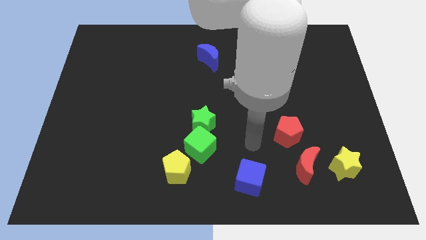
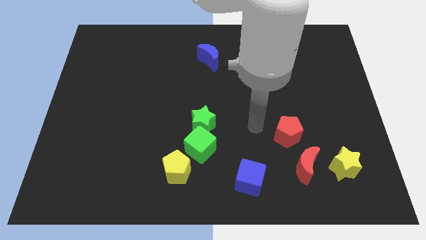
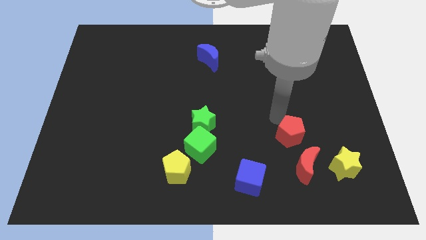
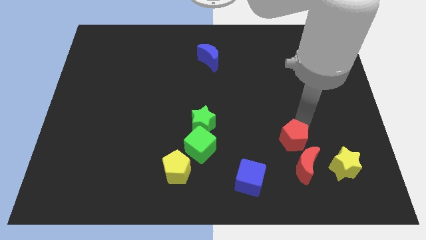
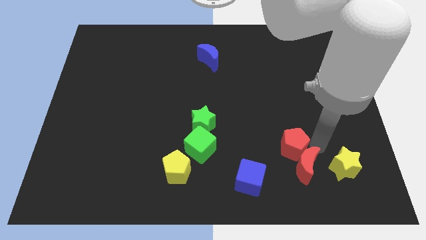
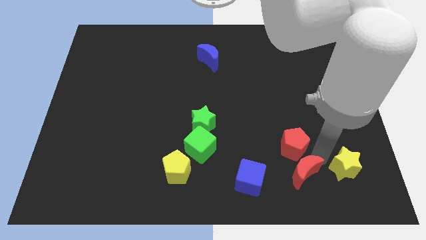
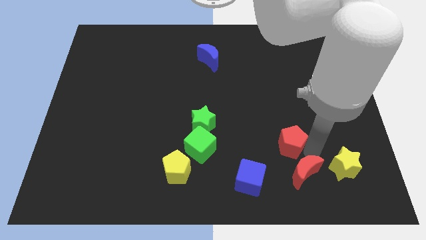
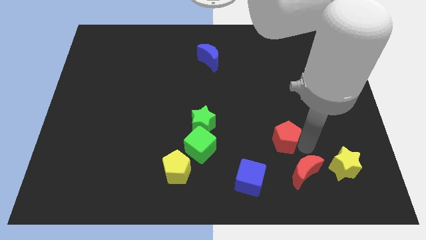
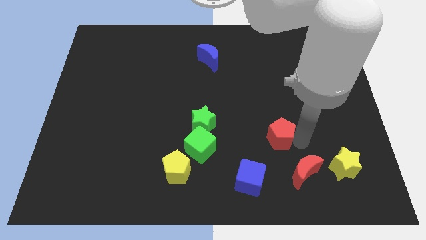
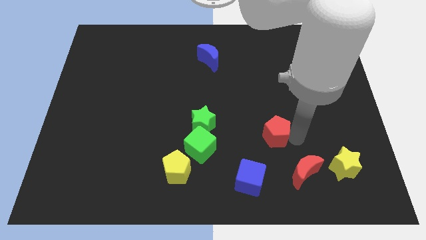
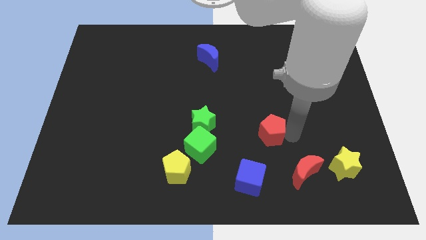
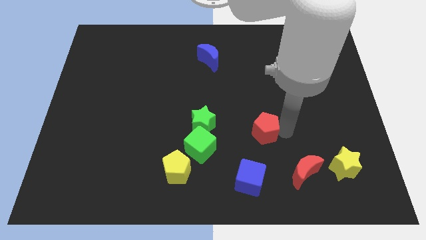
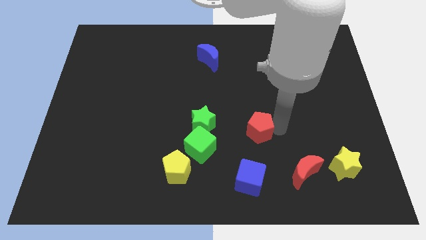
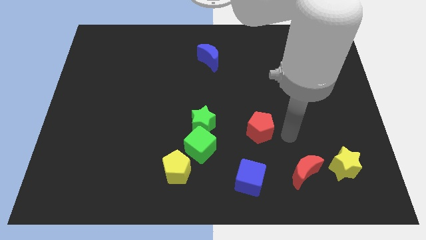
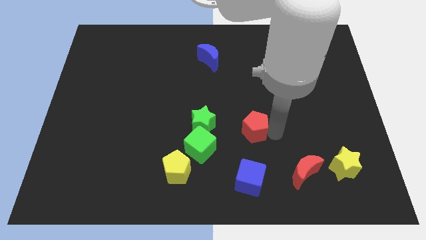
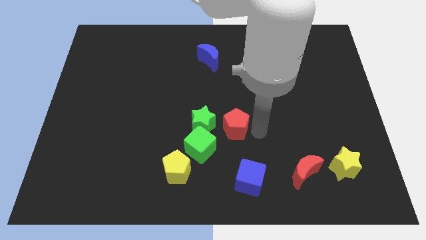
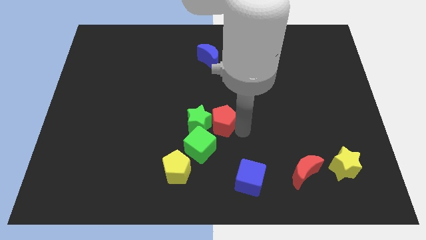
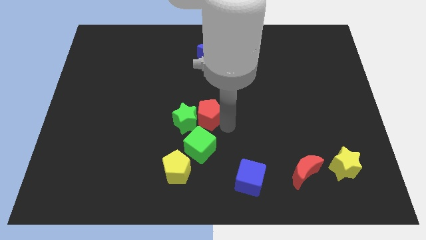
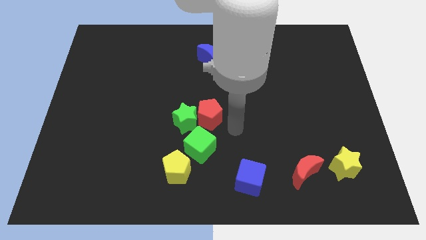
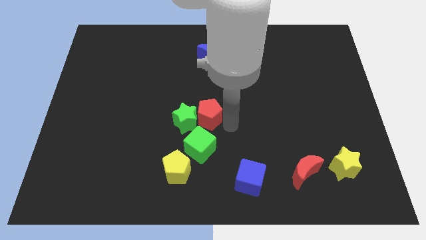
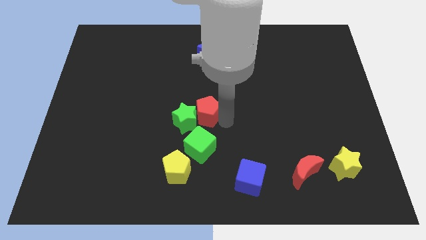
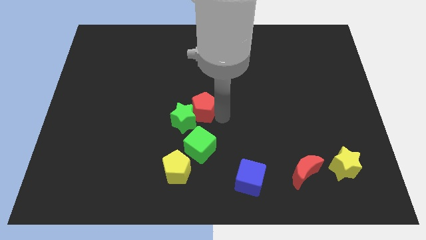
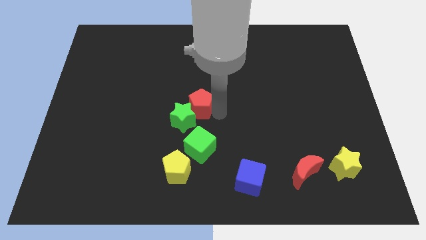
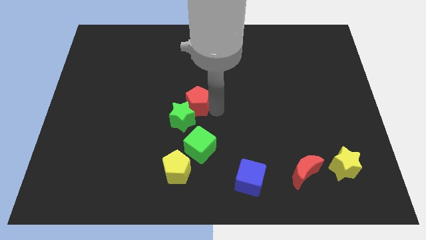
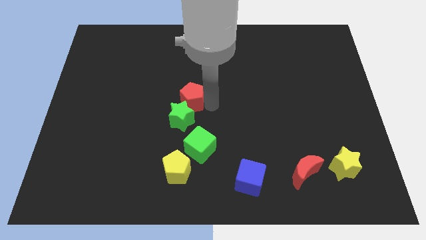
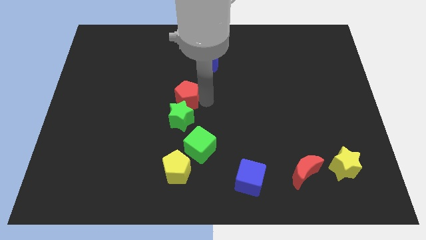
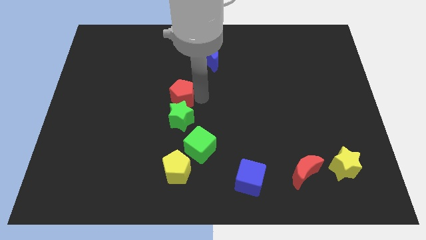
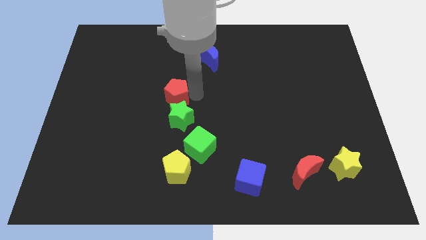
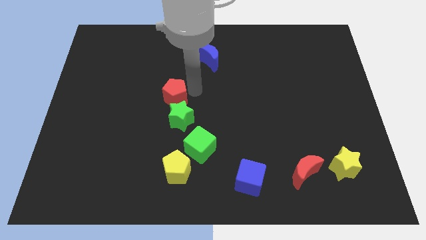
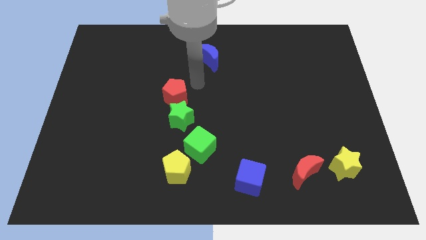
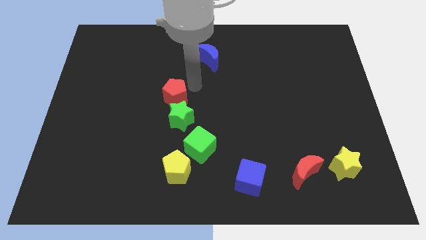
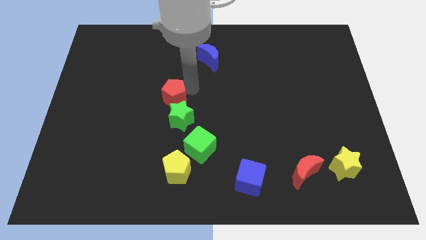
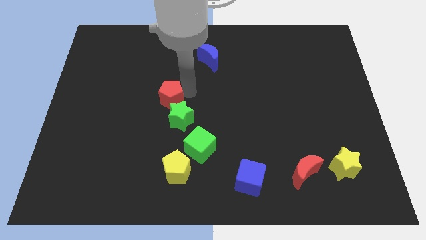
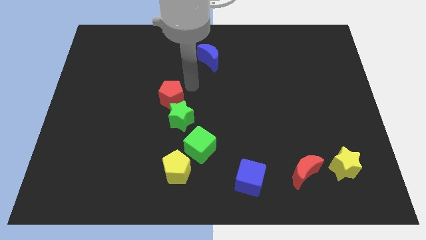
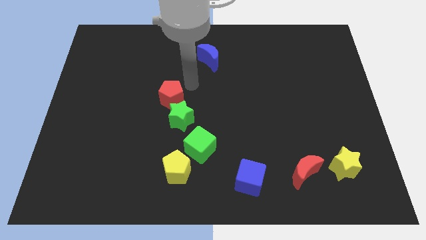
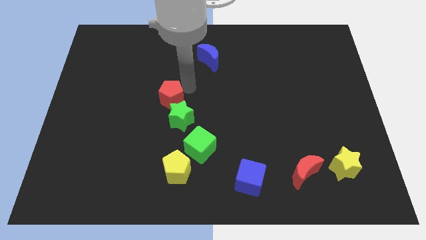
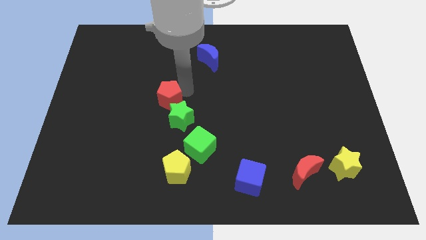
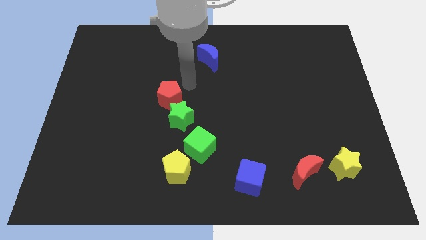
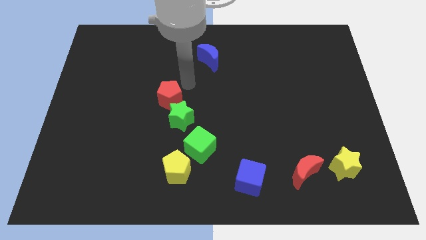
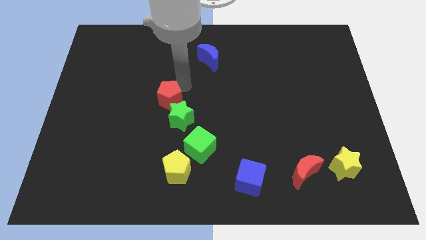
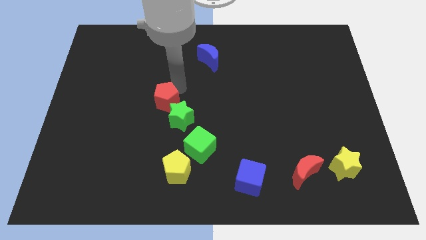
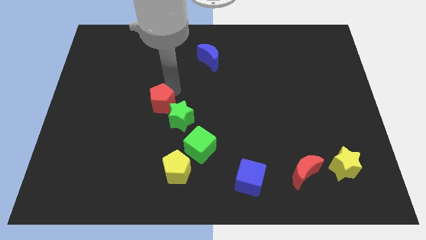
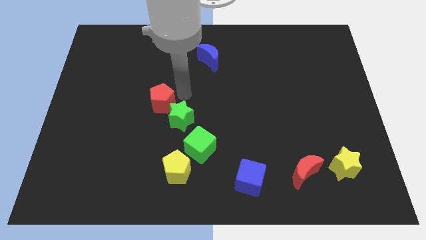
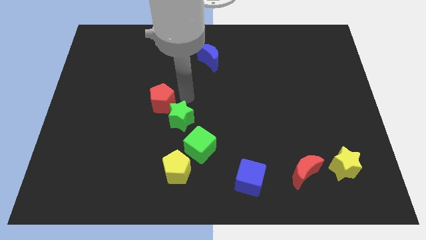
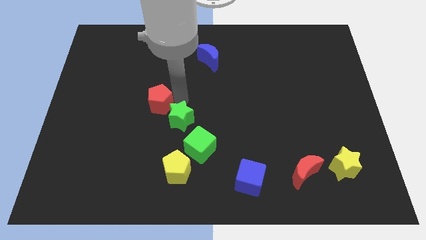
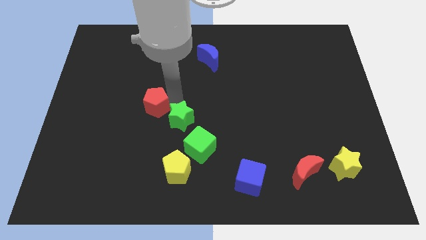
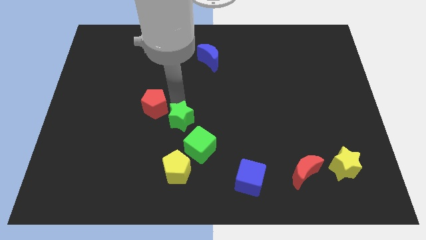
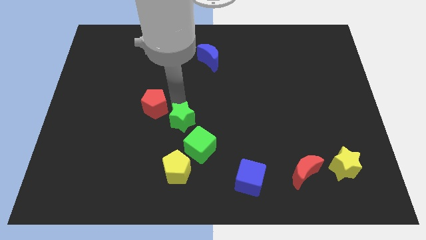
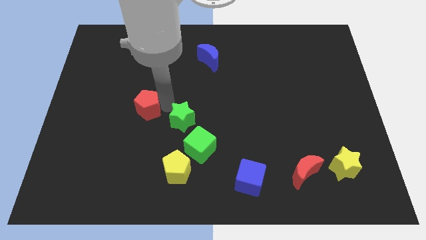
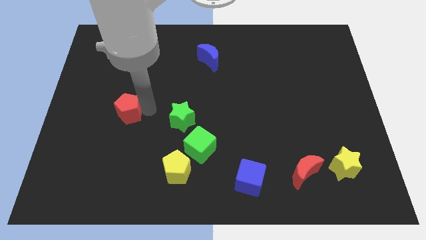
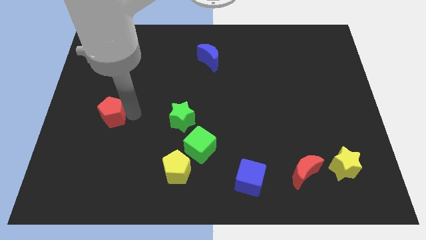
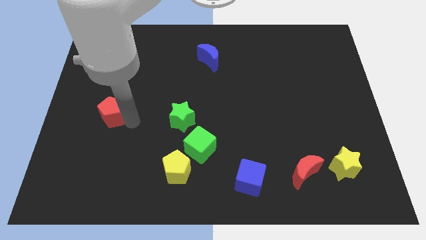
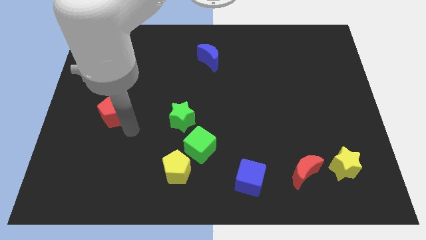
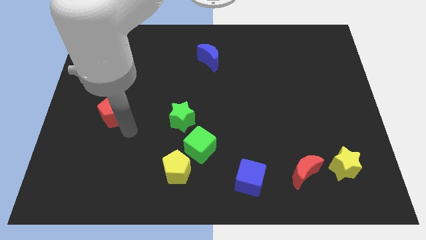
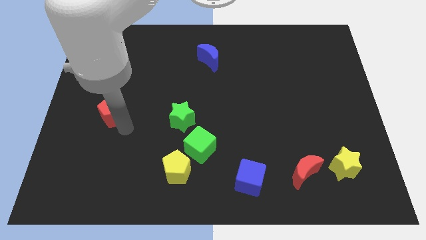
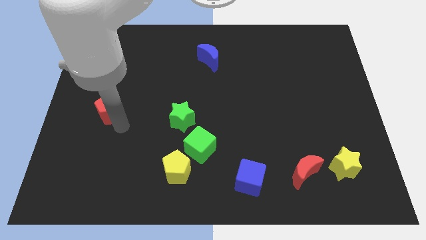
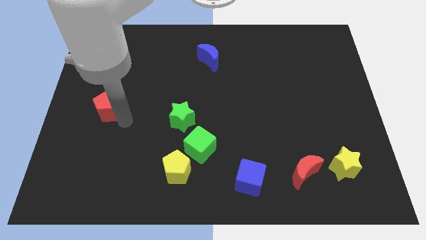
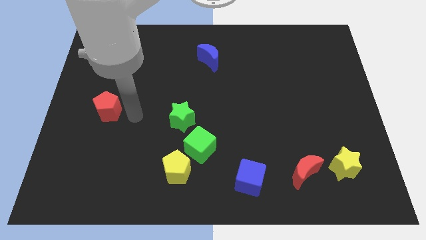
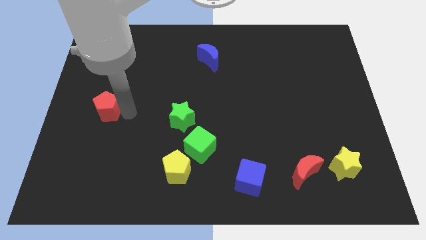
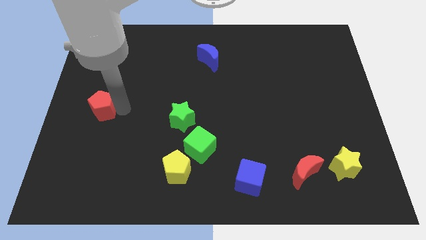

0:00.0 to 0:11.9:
move the red pentagon to the center left

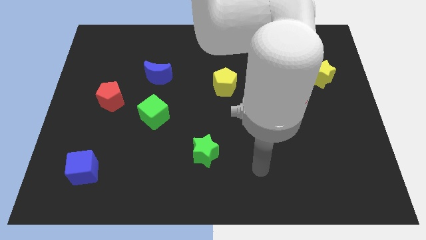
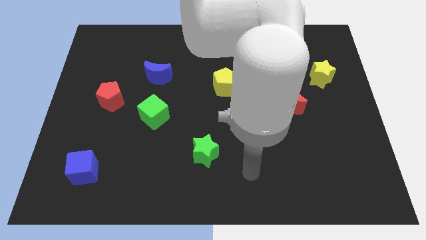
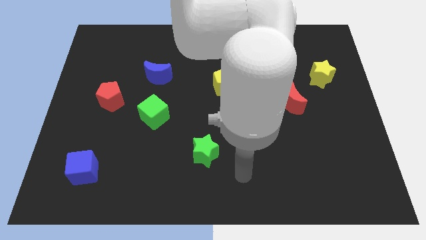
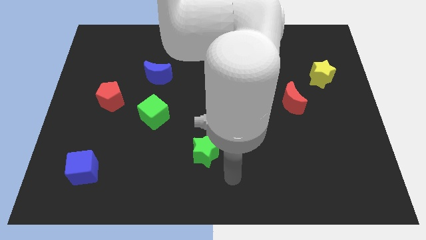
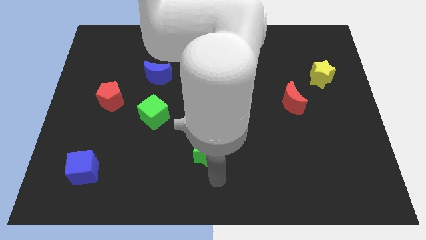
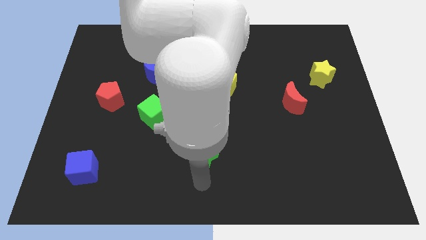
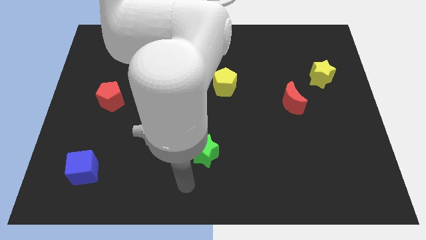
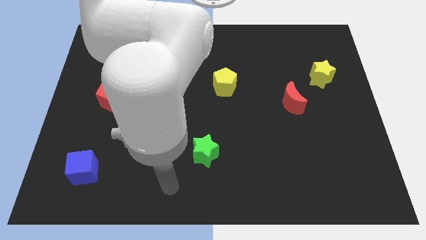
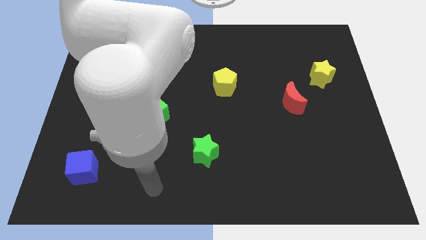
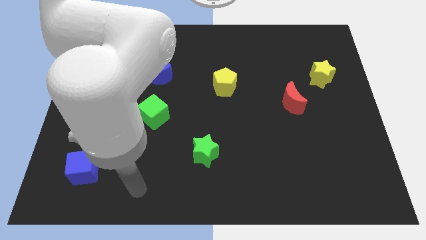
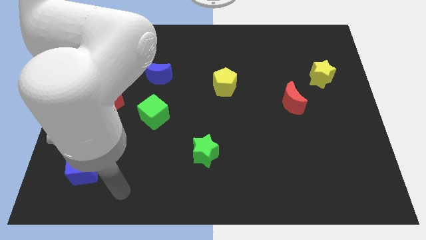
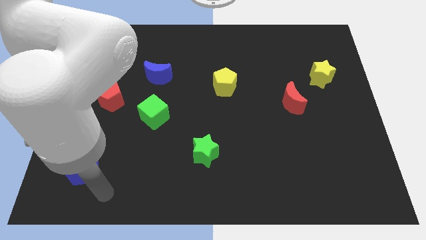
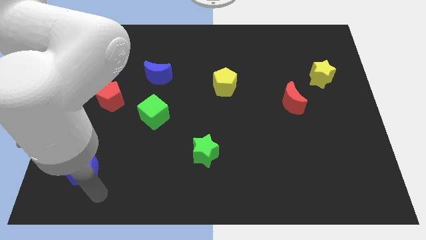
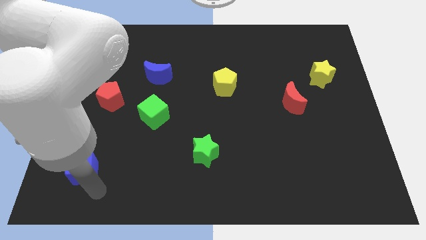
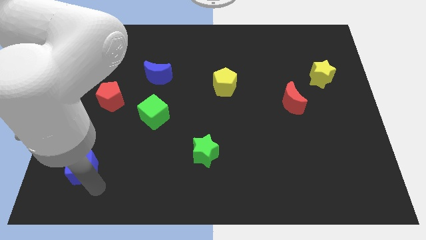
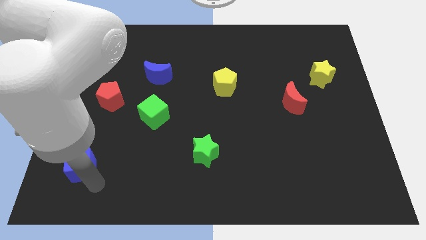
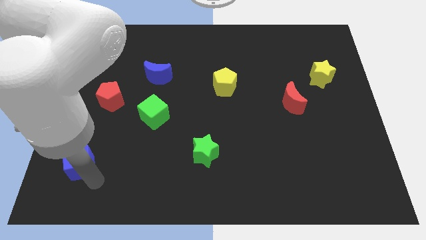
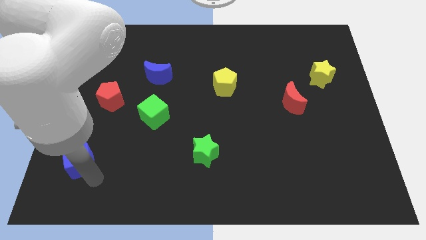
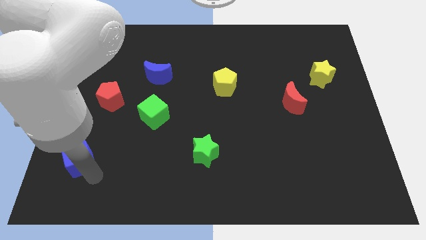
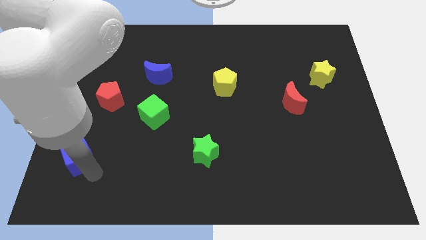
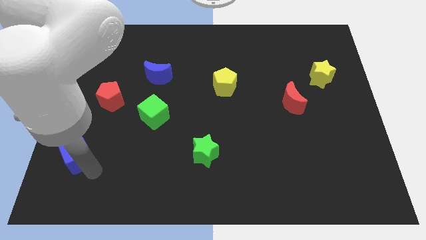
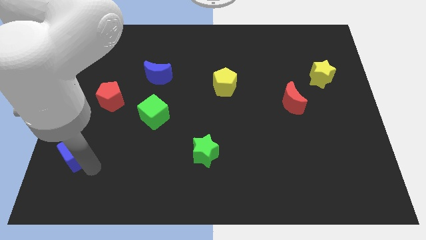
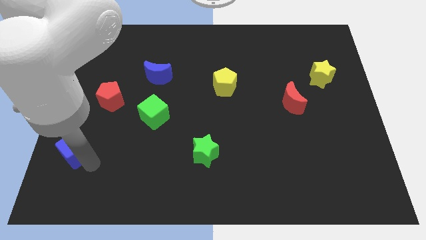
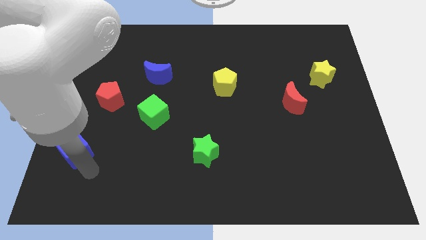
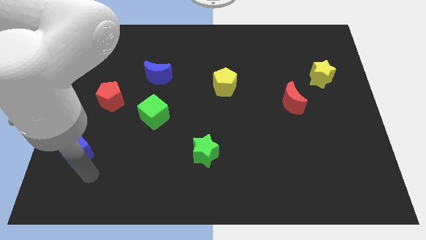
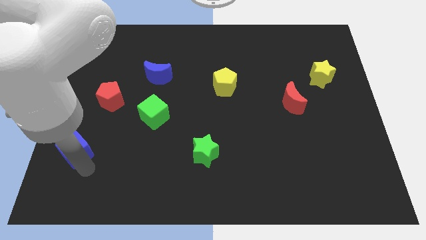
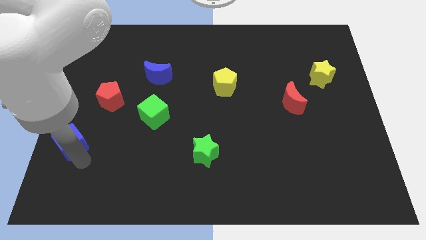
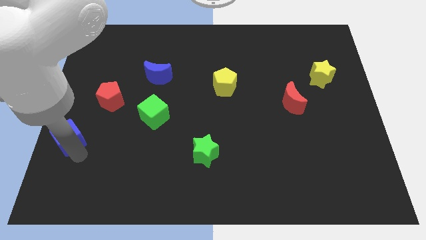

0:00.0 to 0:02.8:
move the blue cube to the left side
